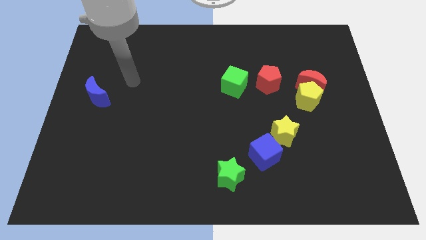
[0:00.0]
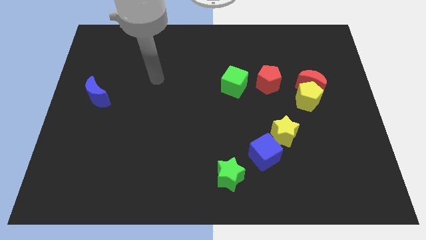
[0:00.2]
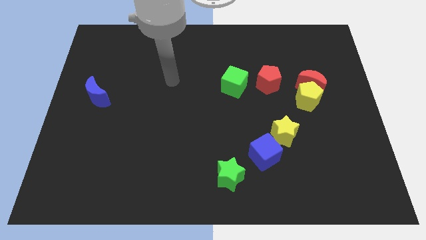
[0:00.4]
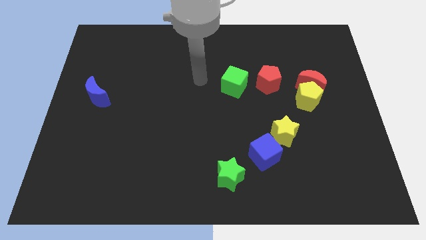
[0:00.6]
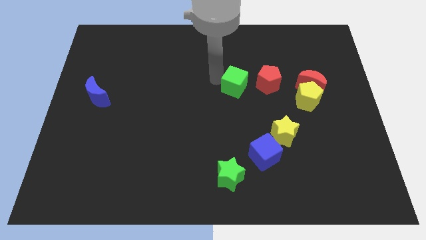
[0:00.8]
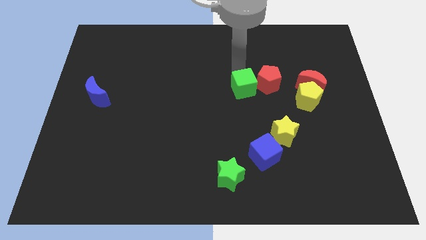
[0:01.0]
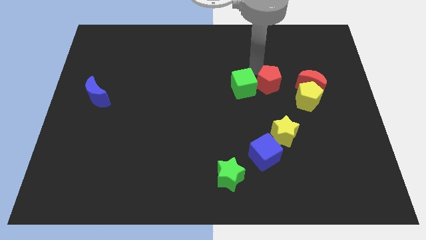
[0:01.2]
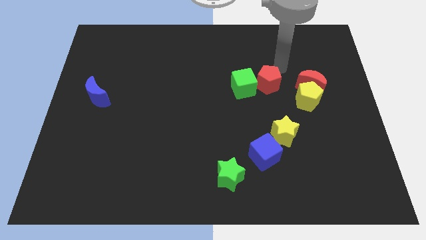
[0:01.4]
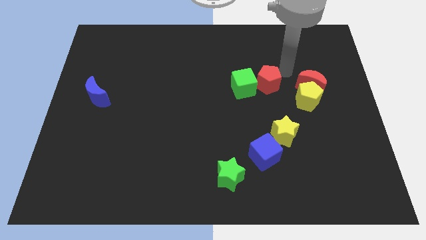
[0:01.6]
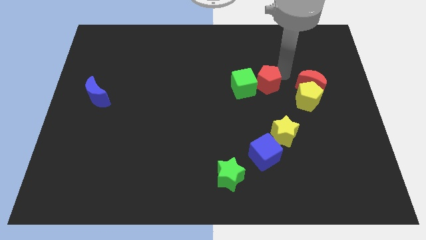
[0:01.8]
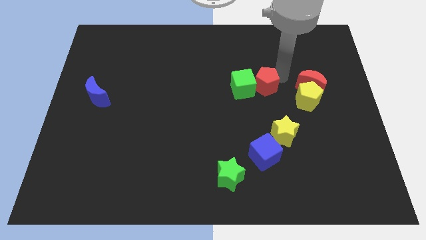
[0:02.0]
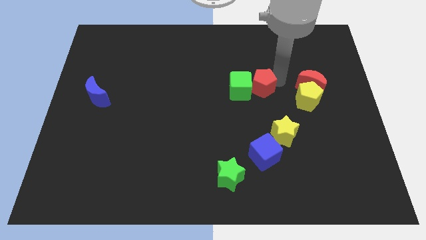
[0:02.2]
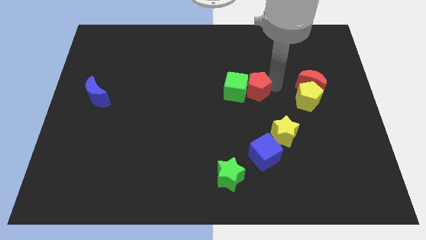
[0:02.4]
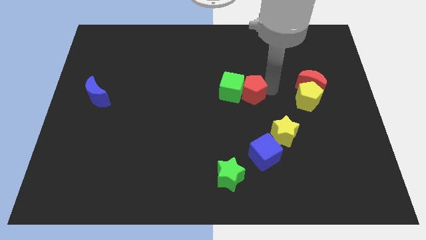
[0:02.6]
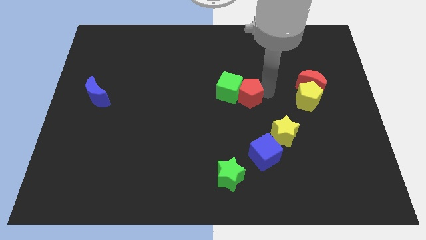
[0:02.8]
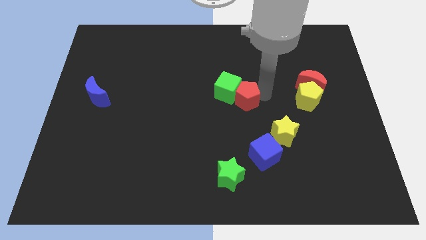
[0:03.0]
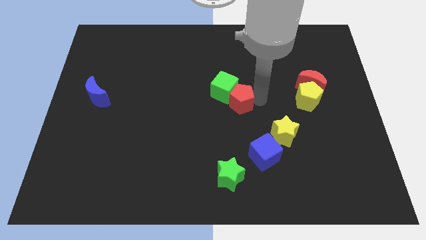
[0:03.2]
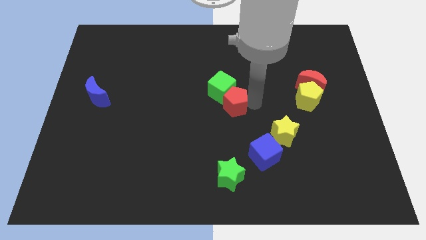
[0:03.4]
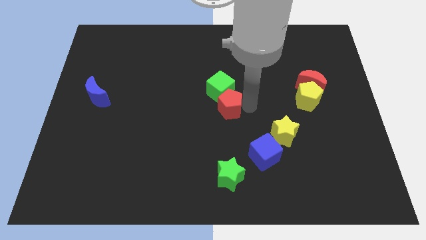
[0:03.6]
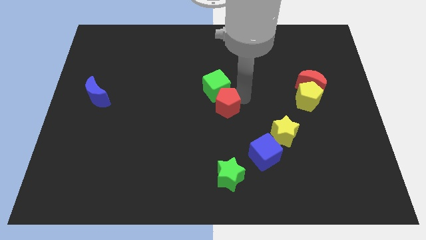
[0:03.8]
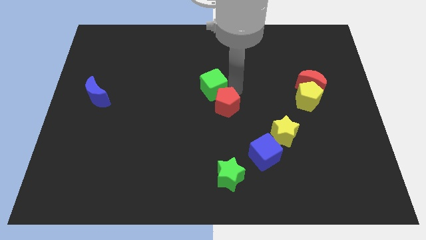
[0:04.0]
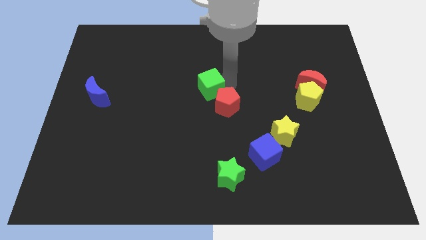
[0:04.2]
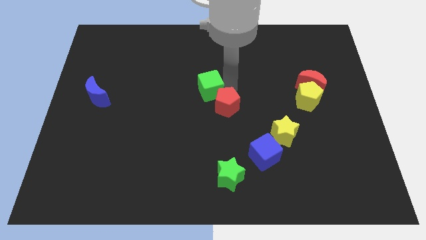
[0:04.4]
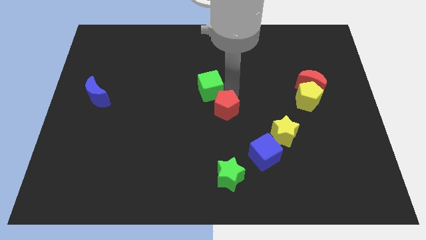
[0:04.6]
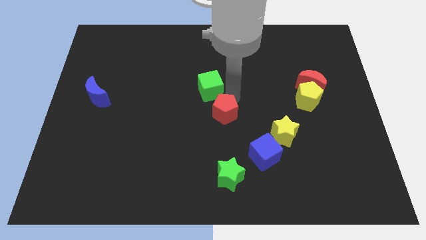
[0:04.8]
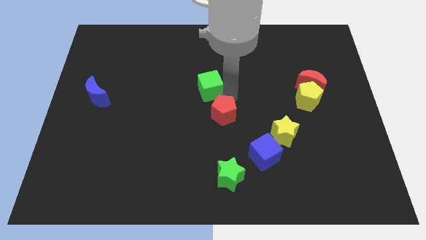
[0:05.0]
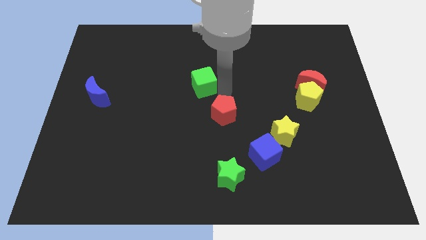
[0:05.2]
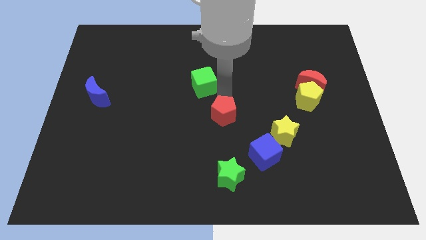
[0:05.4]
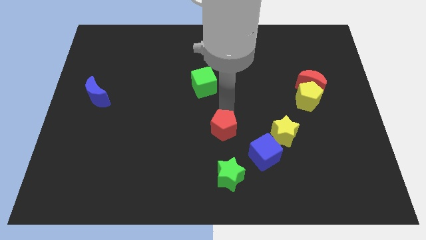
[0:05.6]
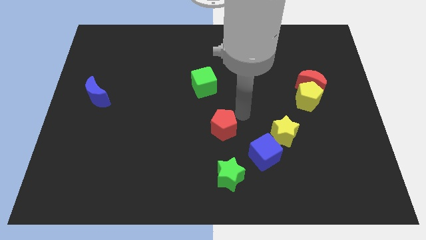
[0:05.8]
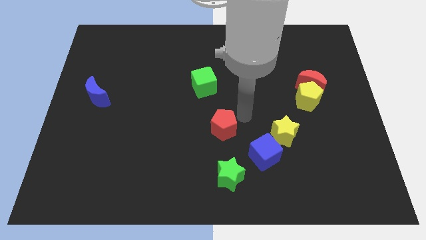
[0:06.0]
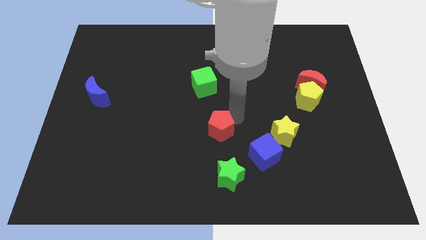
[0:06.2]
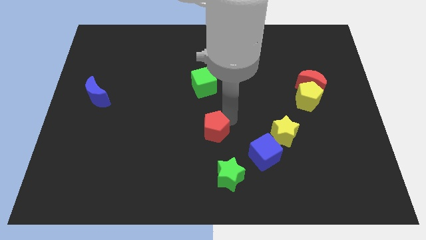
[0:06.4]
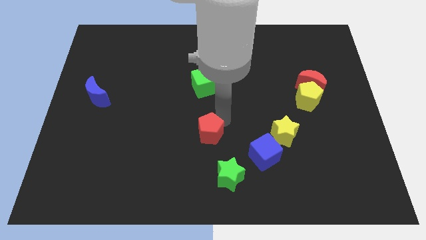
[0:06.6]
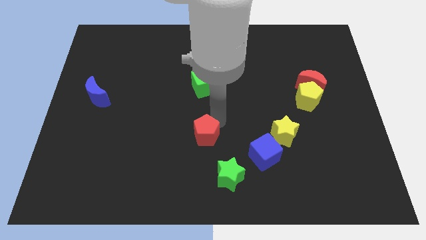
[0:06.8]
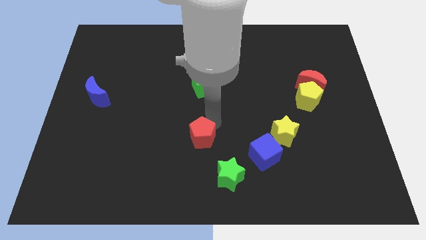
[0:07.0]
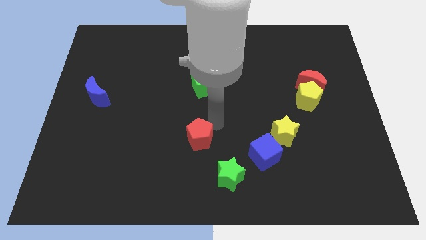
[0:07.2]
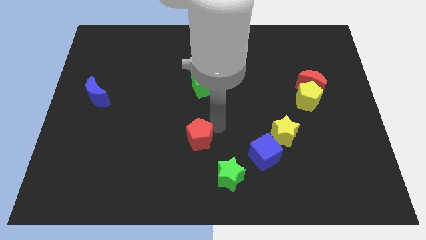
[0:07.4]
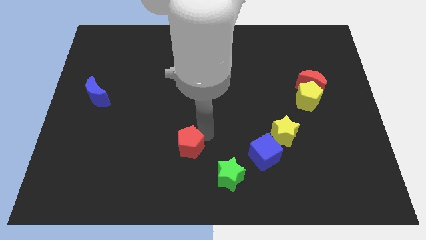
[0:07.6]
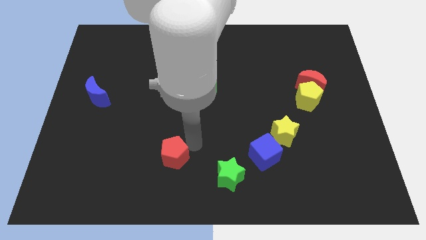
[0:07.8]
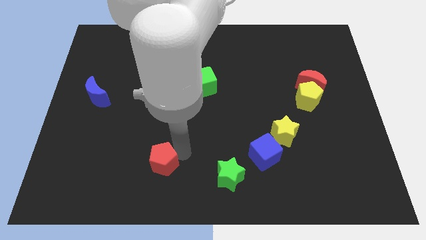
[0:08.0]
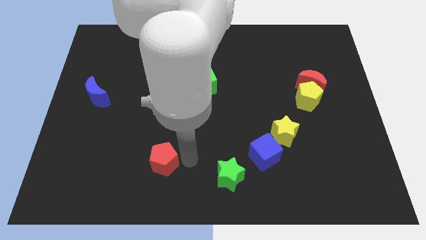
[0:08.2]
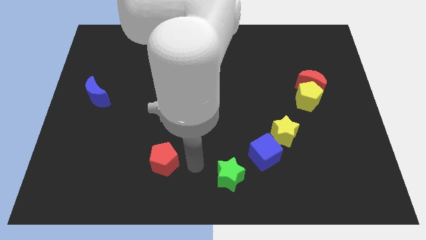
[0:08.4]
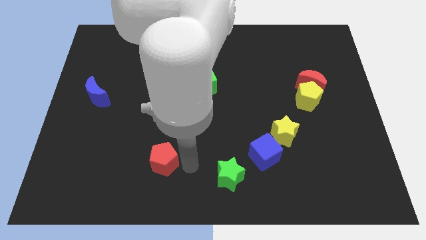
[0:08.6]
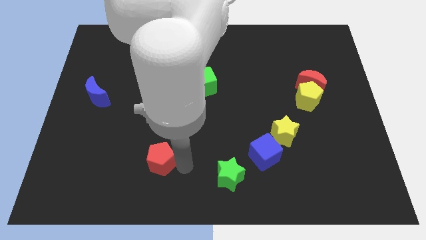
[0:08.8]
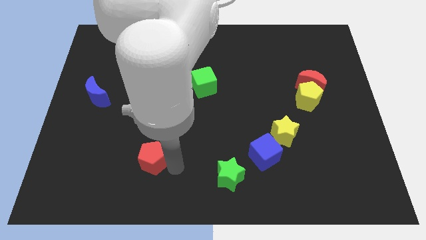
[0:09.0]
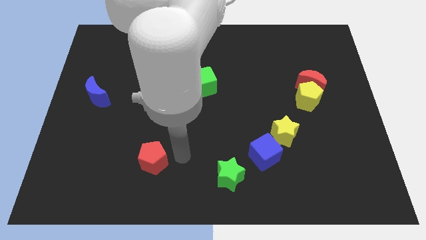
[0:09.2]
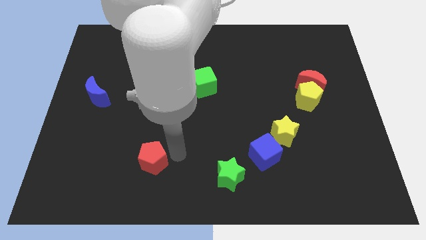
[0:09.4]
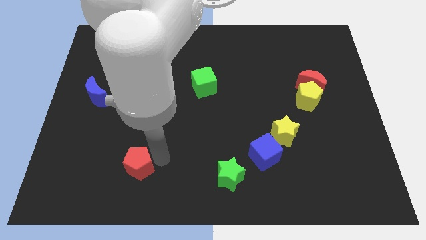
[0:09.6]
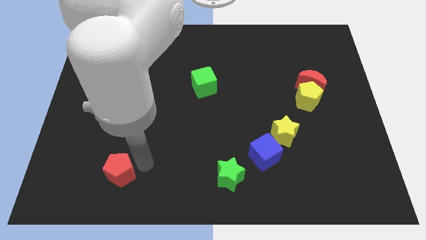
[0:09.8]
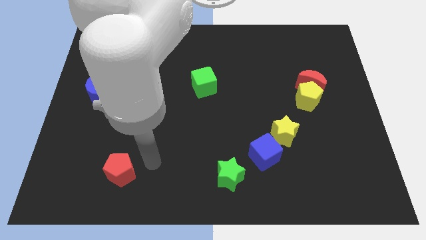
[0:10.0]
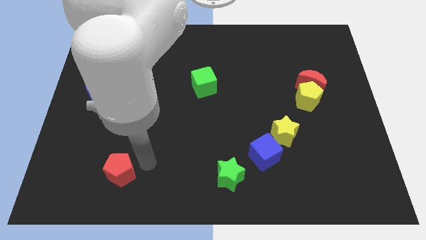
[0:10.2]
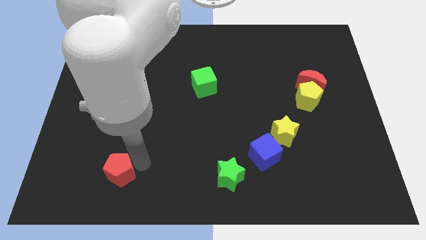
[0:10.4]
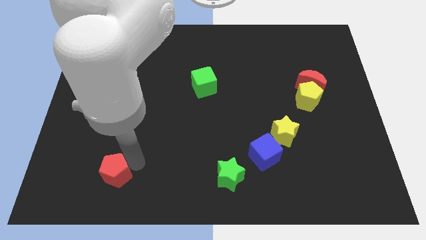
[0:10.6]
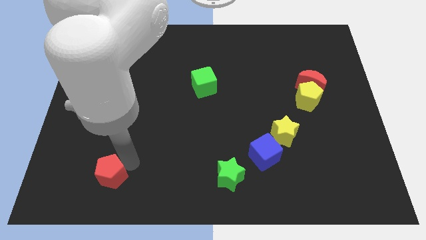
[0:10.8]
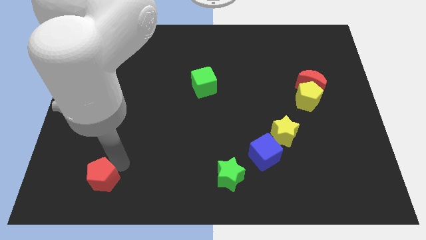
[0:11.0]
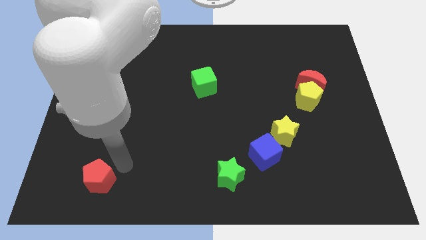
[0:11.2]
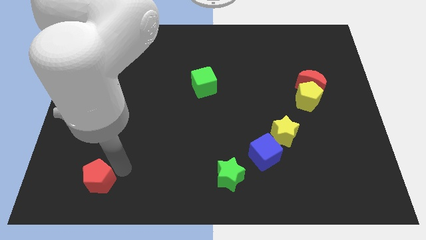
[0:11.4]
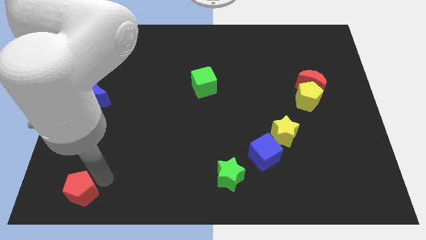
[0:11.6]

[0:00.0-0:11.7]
move the red pentagon to the bottom left corner

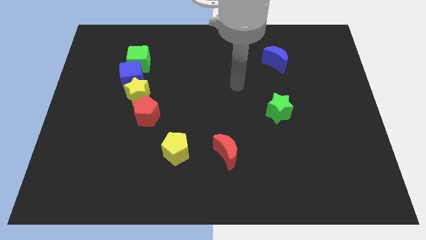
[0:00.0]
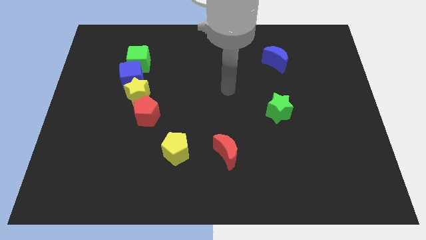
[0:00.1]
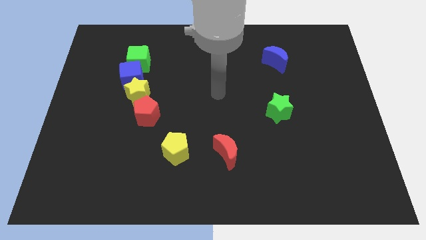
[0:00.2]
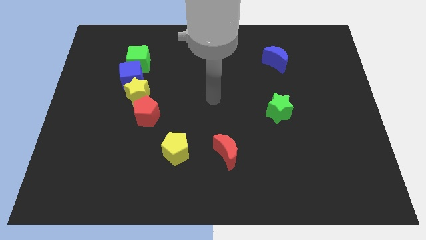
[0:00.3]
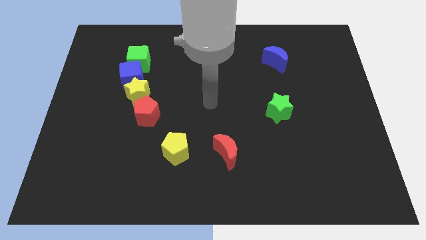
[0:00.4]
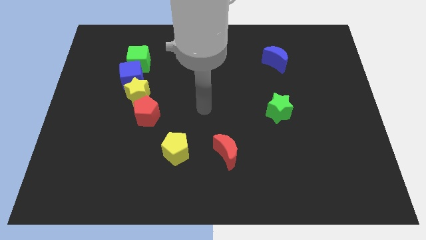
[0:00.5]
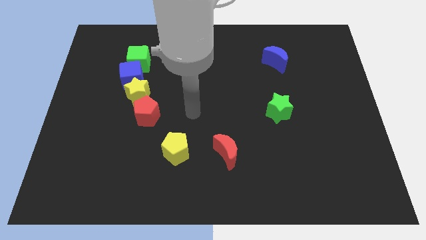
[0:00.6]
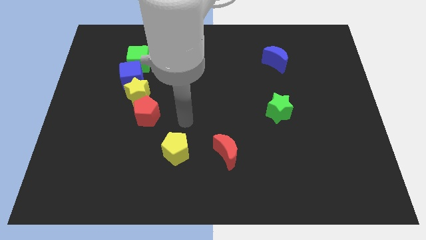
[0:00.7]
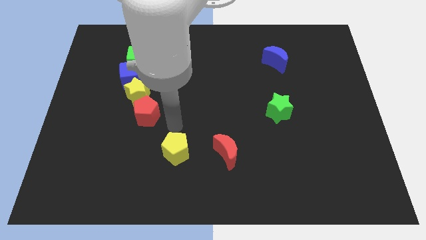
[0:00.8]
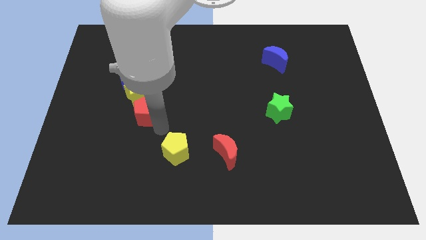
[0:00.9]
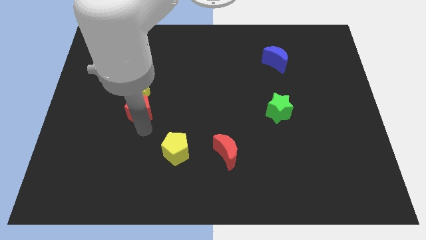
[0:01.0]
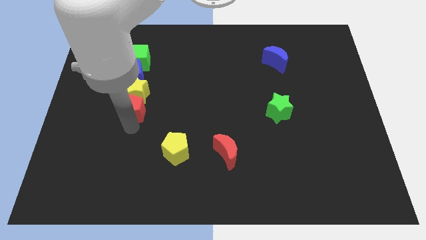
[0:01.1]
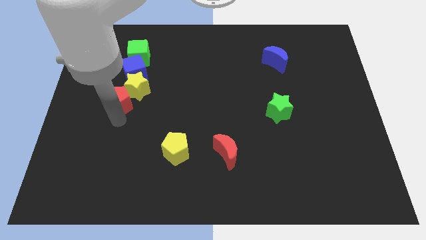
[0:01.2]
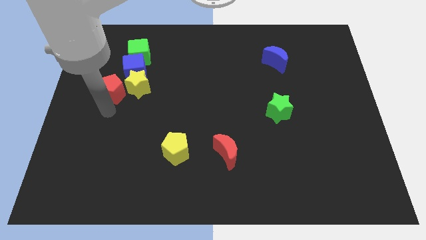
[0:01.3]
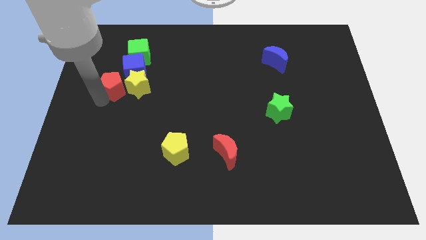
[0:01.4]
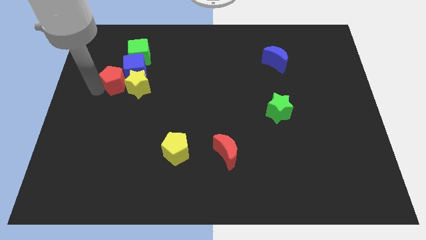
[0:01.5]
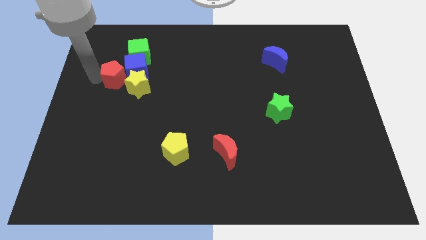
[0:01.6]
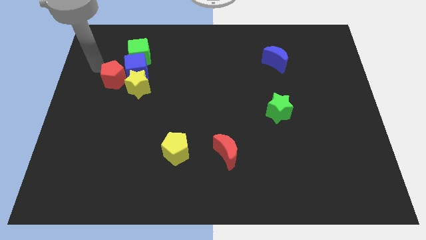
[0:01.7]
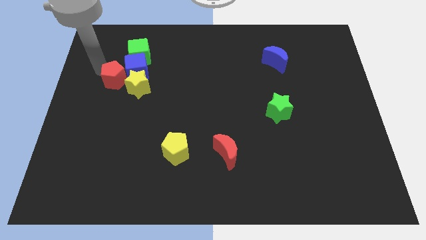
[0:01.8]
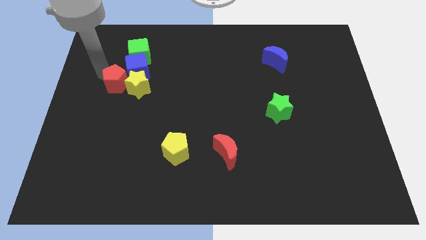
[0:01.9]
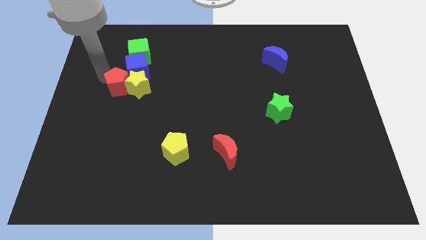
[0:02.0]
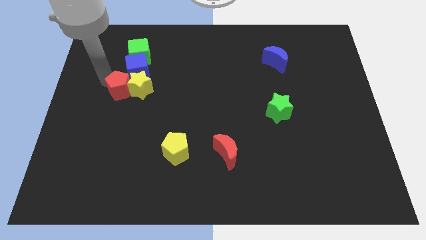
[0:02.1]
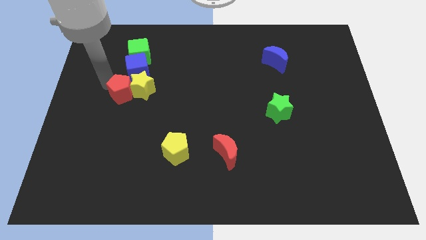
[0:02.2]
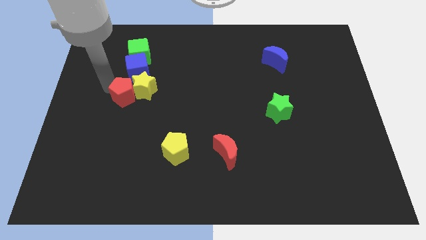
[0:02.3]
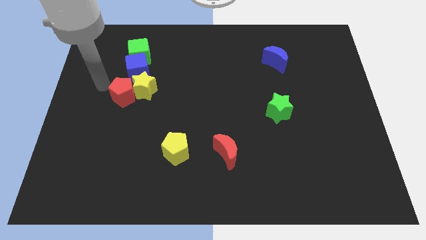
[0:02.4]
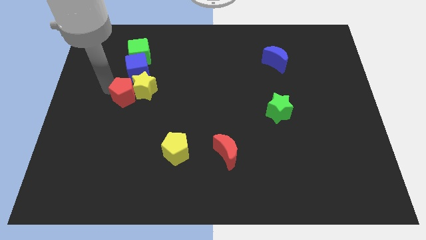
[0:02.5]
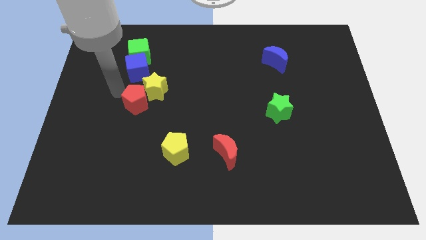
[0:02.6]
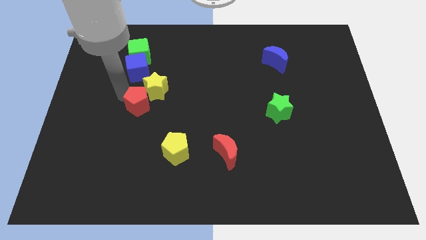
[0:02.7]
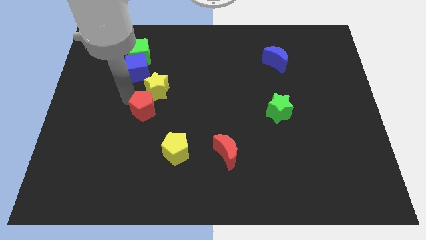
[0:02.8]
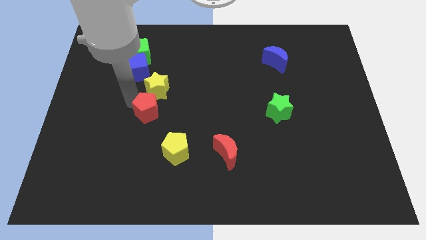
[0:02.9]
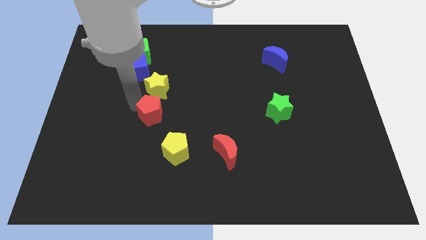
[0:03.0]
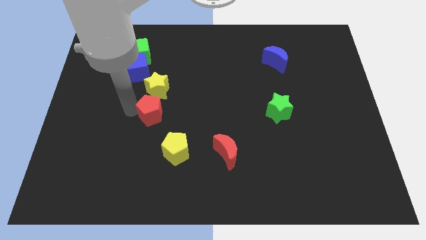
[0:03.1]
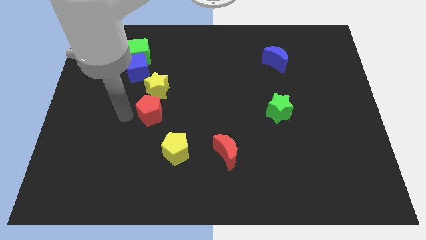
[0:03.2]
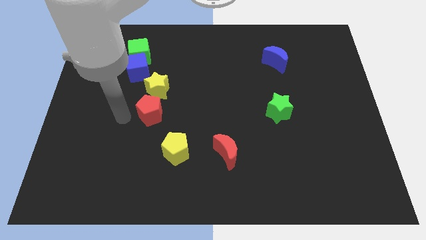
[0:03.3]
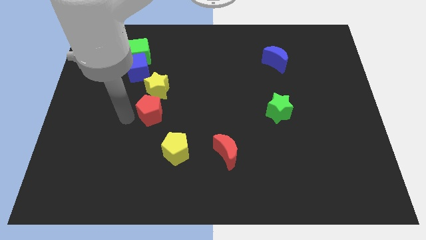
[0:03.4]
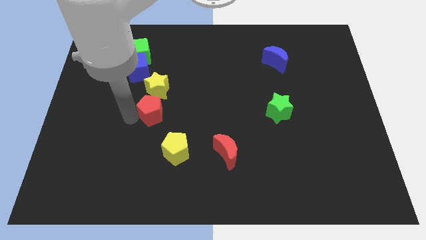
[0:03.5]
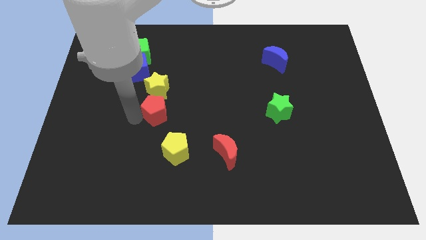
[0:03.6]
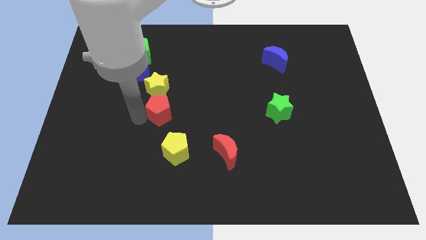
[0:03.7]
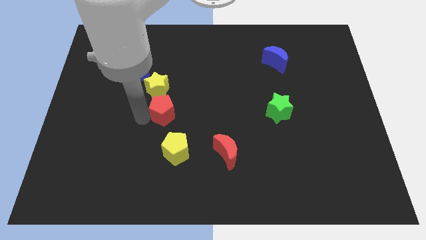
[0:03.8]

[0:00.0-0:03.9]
slide the red pentagon to the center
